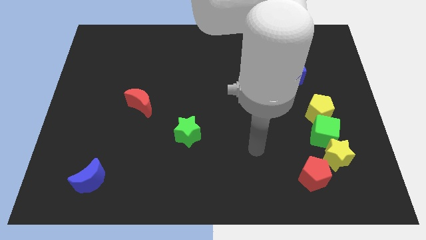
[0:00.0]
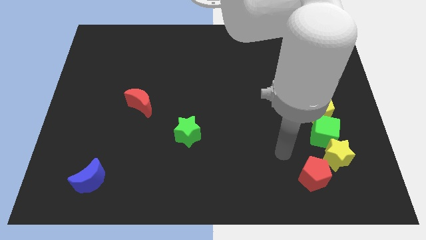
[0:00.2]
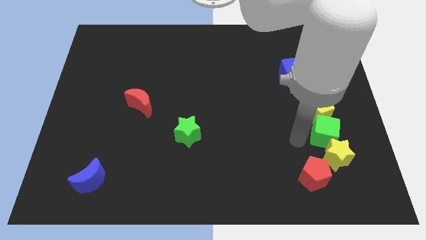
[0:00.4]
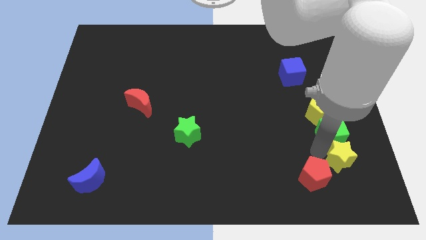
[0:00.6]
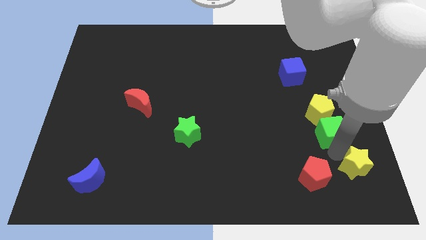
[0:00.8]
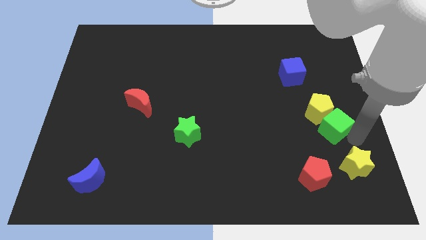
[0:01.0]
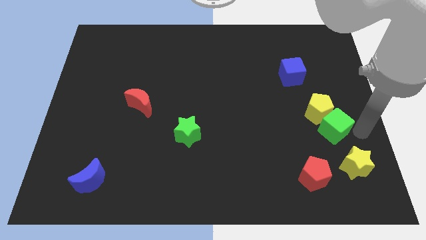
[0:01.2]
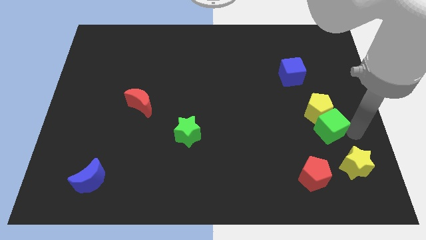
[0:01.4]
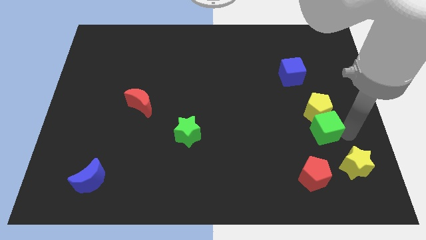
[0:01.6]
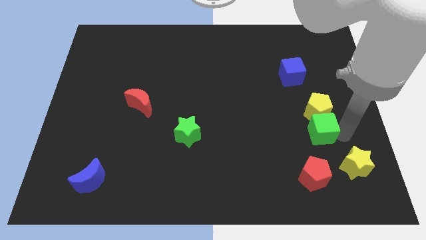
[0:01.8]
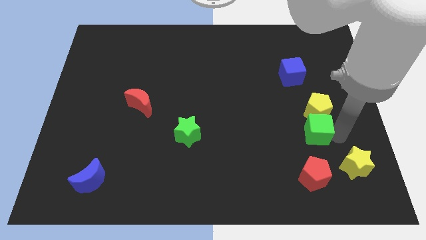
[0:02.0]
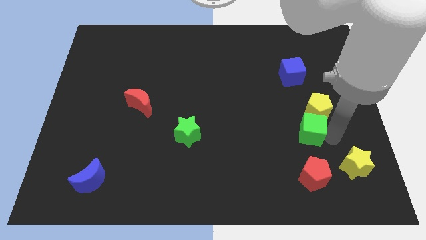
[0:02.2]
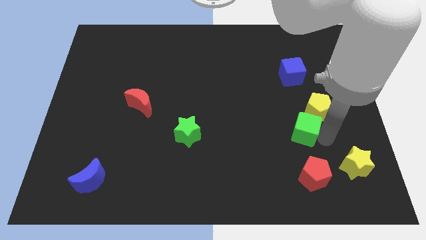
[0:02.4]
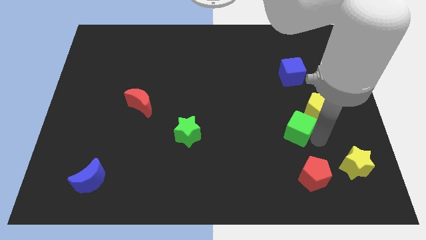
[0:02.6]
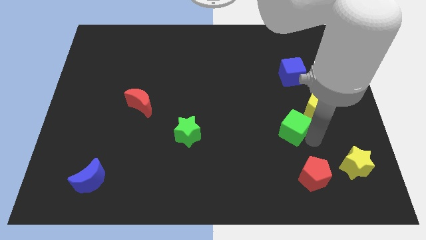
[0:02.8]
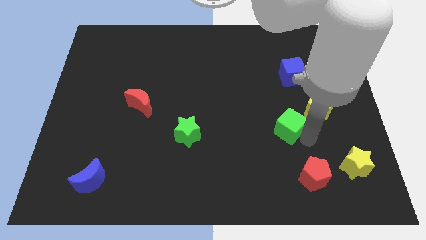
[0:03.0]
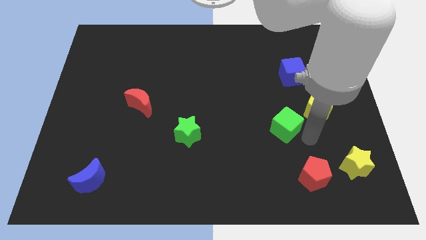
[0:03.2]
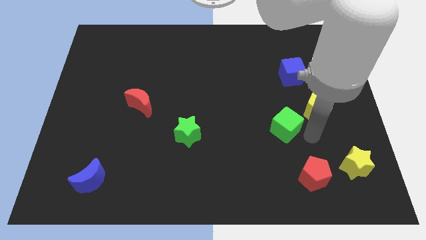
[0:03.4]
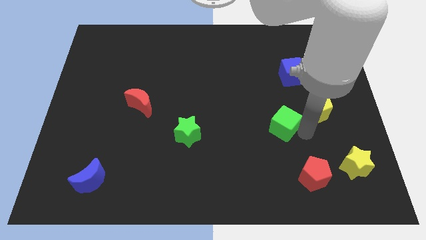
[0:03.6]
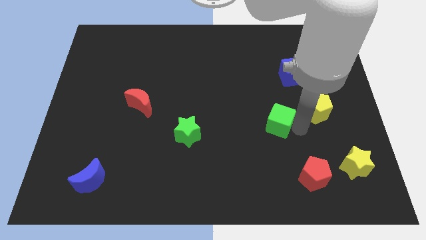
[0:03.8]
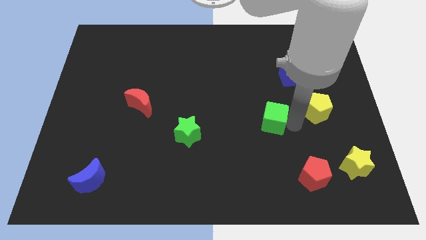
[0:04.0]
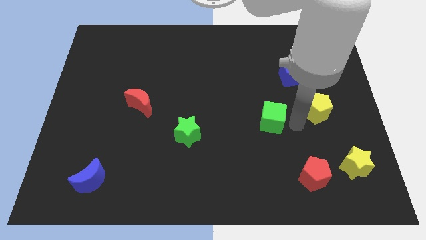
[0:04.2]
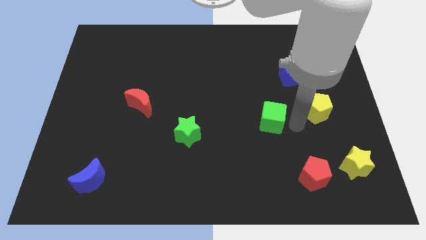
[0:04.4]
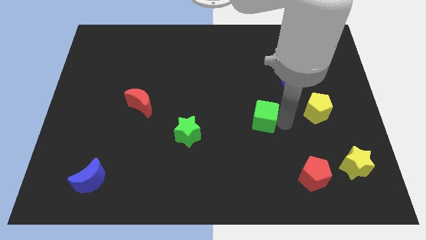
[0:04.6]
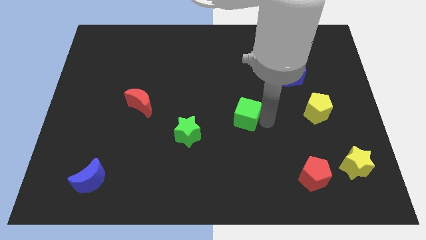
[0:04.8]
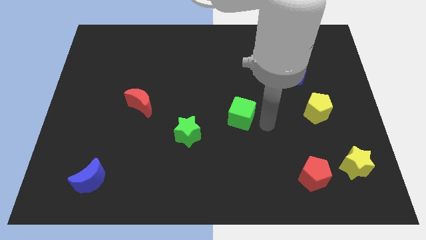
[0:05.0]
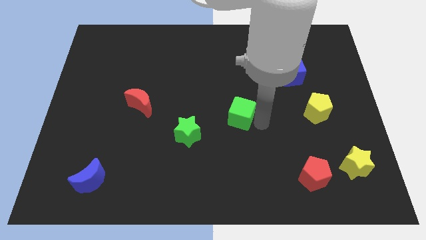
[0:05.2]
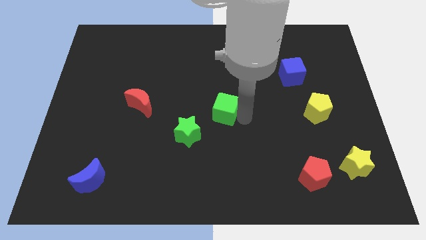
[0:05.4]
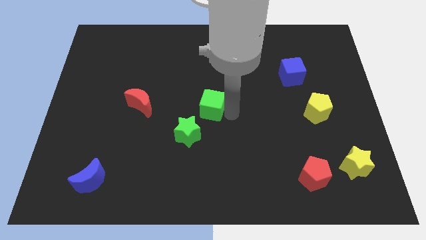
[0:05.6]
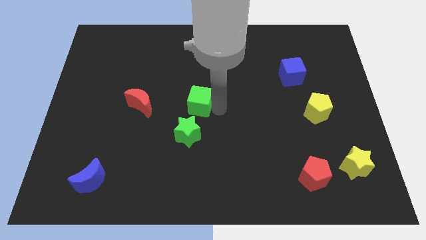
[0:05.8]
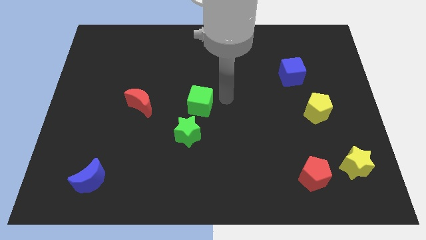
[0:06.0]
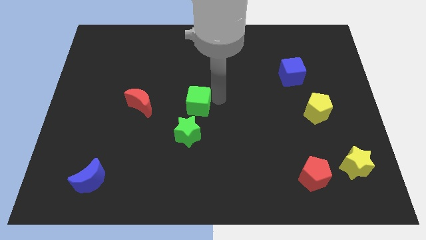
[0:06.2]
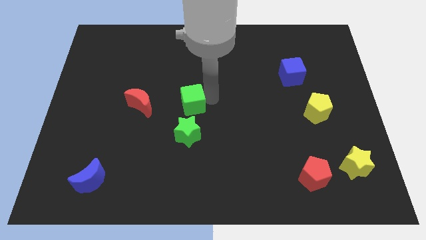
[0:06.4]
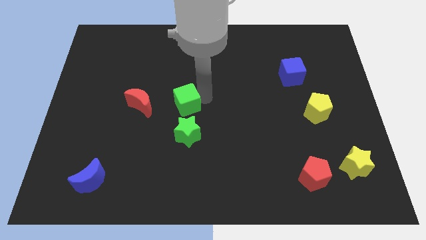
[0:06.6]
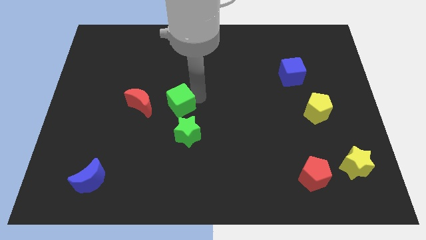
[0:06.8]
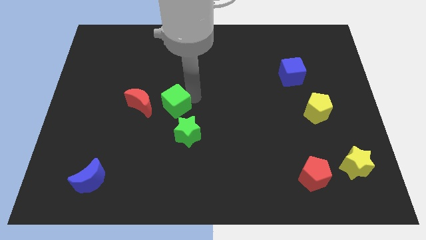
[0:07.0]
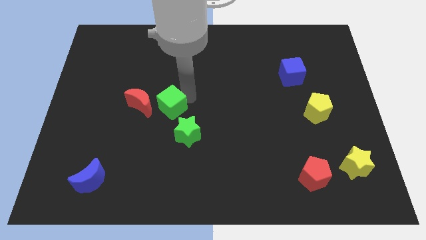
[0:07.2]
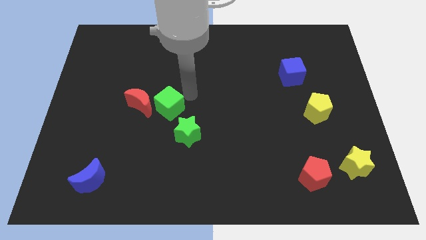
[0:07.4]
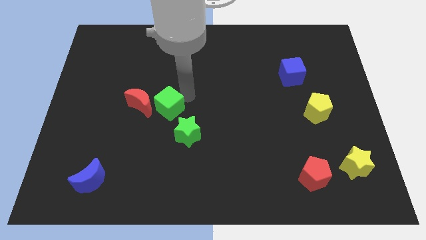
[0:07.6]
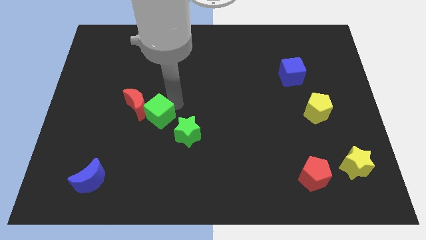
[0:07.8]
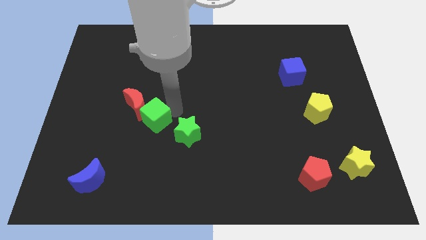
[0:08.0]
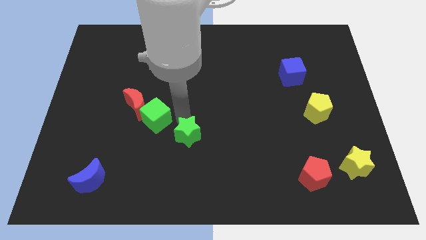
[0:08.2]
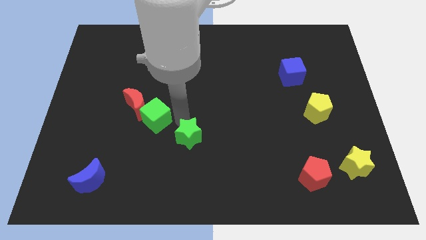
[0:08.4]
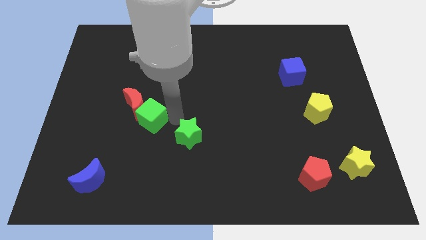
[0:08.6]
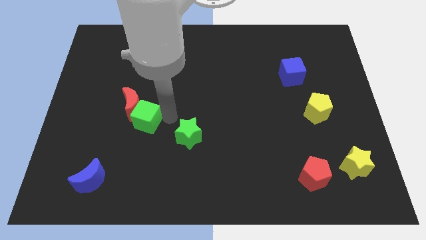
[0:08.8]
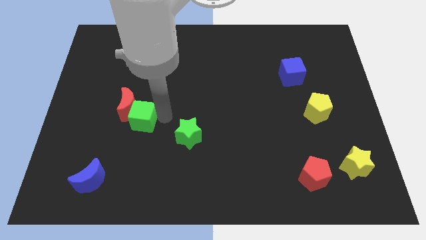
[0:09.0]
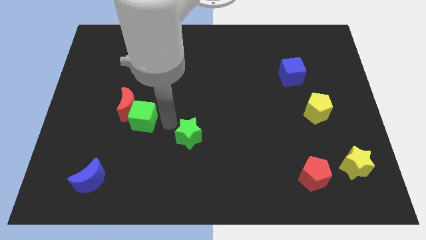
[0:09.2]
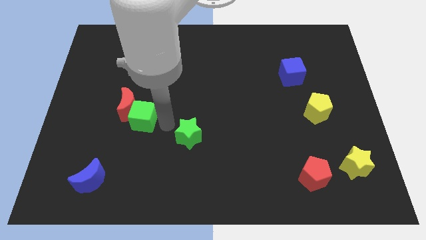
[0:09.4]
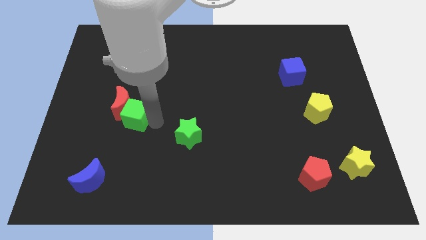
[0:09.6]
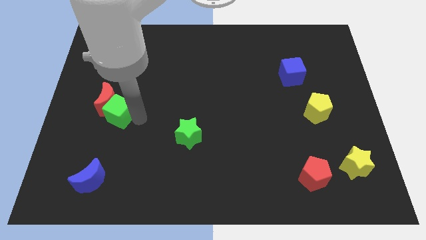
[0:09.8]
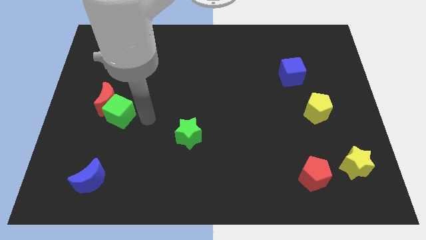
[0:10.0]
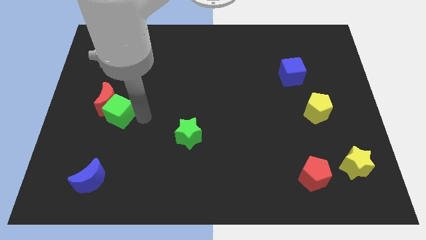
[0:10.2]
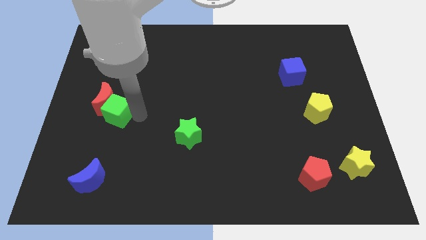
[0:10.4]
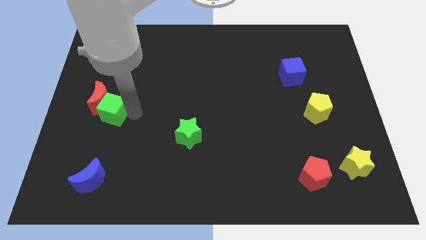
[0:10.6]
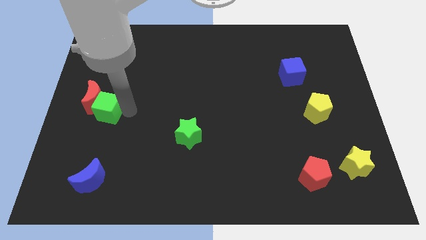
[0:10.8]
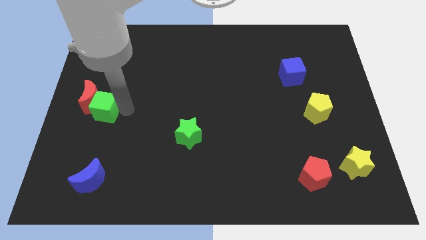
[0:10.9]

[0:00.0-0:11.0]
put the green cube to the center left

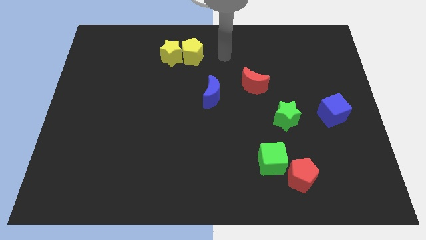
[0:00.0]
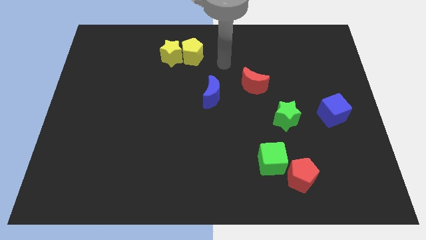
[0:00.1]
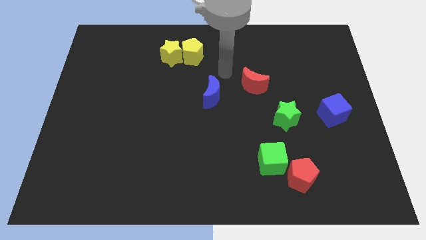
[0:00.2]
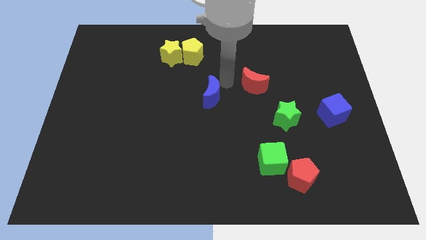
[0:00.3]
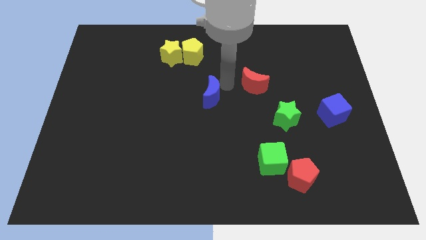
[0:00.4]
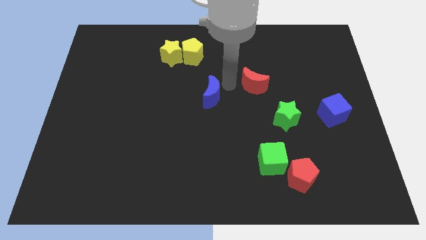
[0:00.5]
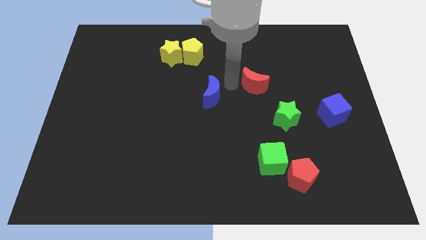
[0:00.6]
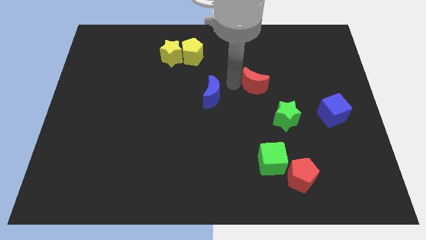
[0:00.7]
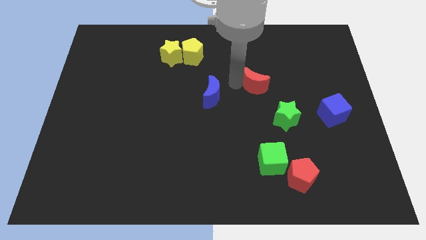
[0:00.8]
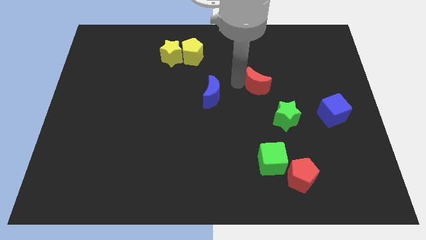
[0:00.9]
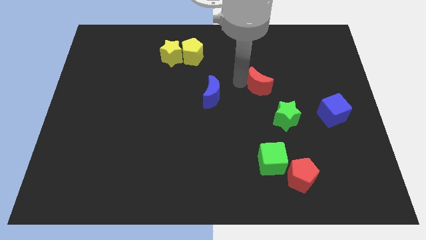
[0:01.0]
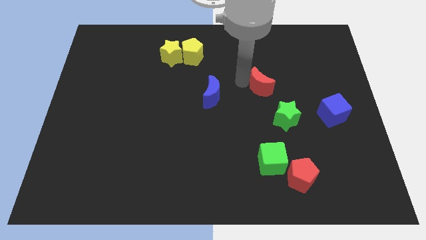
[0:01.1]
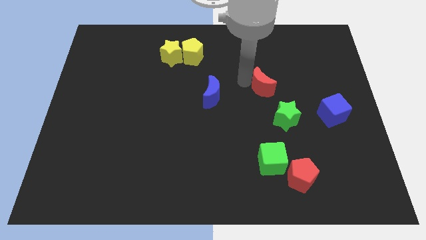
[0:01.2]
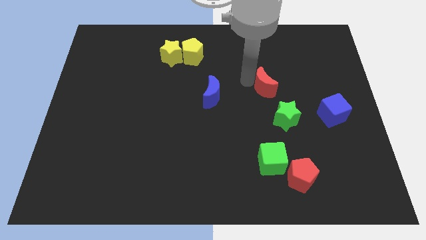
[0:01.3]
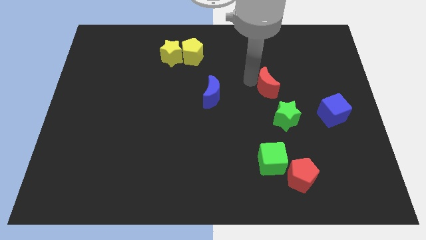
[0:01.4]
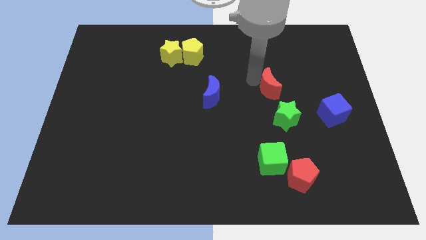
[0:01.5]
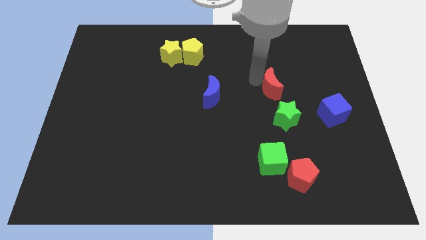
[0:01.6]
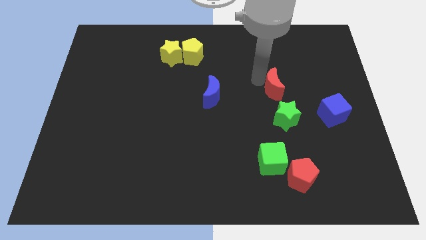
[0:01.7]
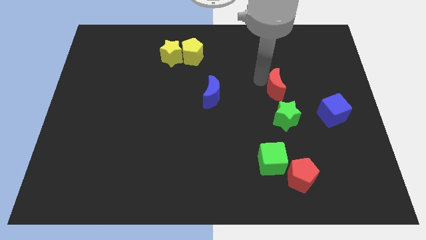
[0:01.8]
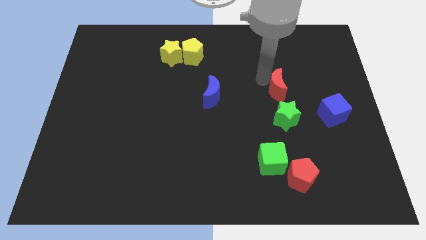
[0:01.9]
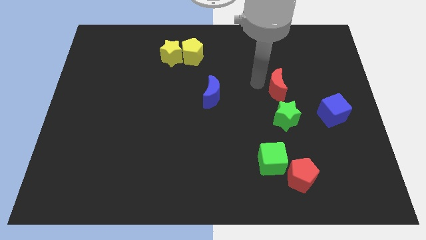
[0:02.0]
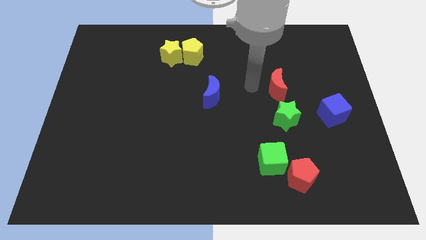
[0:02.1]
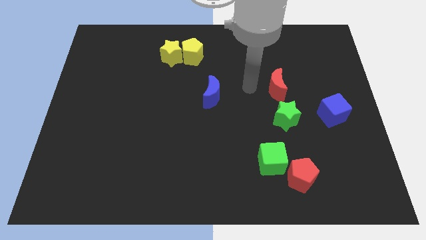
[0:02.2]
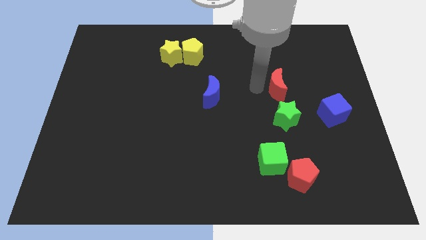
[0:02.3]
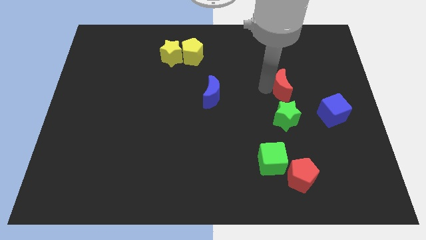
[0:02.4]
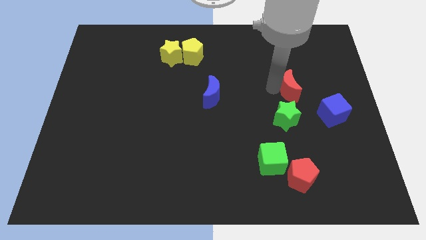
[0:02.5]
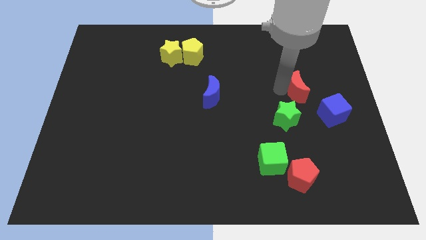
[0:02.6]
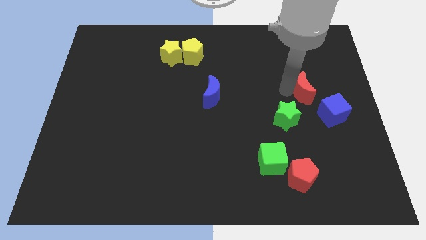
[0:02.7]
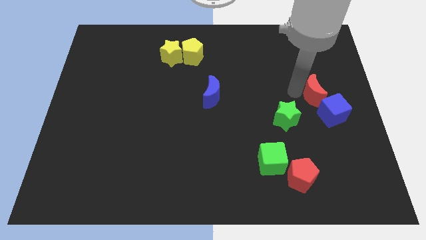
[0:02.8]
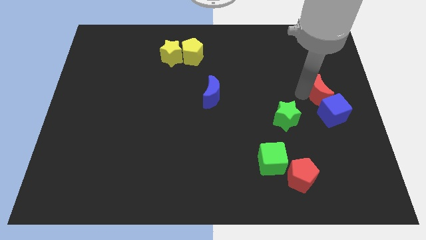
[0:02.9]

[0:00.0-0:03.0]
move the red moon to the right side of the board
